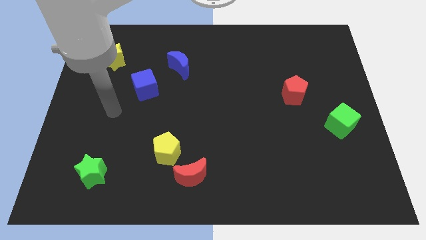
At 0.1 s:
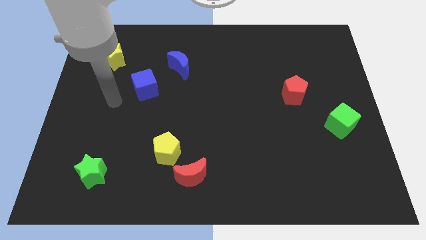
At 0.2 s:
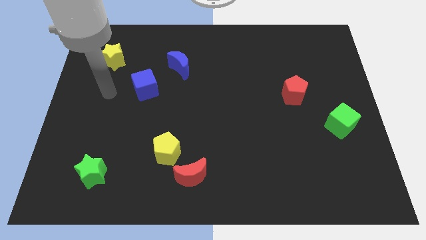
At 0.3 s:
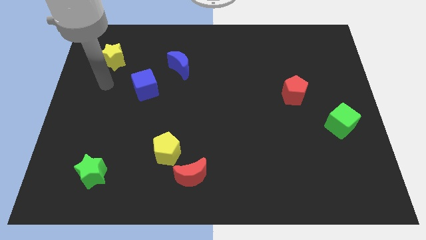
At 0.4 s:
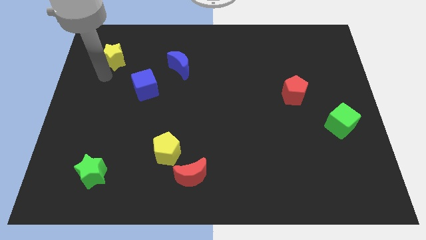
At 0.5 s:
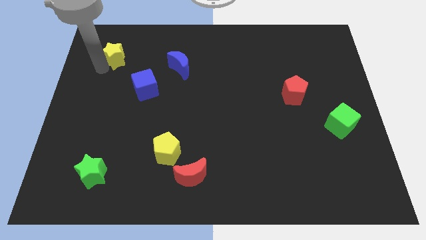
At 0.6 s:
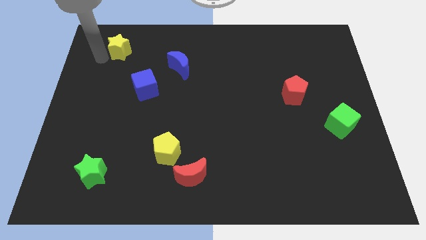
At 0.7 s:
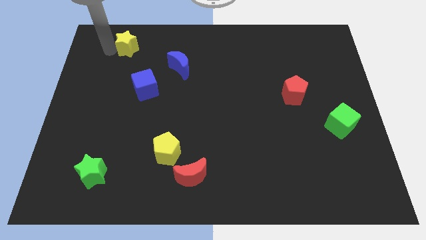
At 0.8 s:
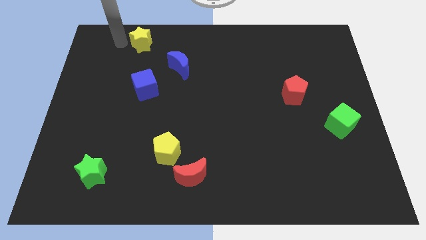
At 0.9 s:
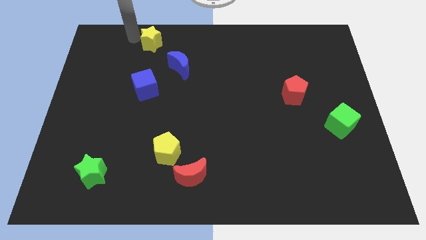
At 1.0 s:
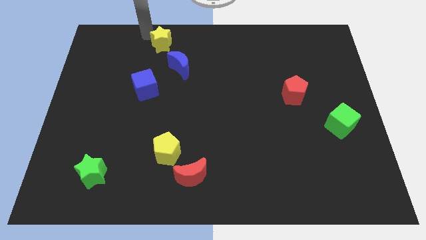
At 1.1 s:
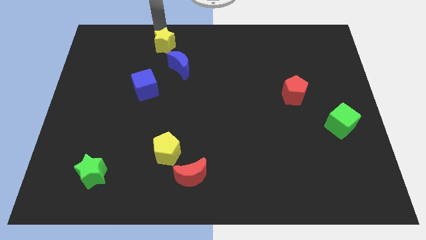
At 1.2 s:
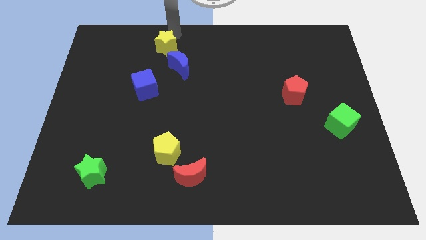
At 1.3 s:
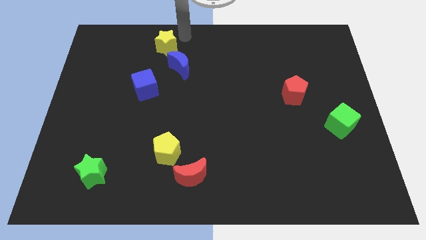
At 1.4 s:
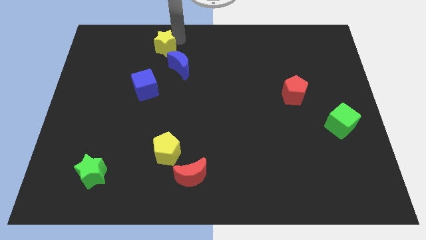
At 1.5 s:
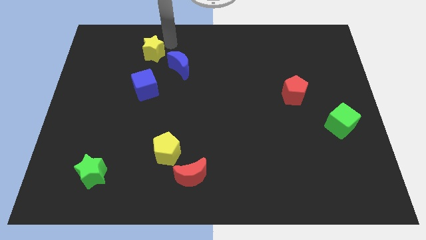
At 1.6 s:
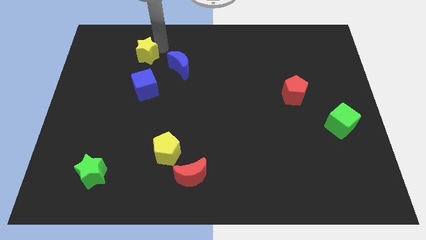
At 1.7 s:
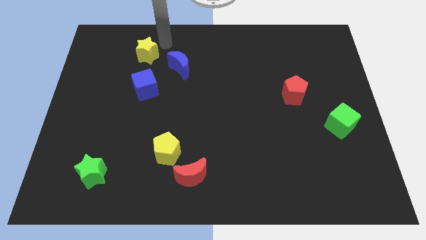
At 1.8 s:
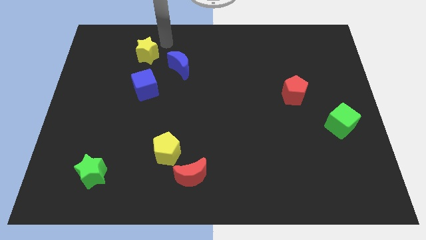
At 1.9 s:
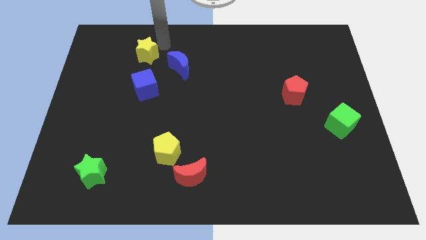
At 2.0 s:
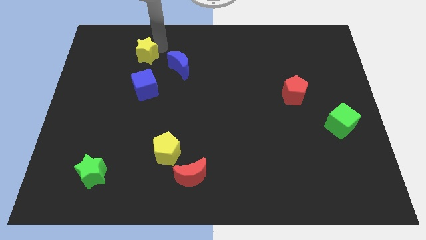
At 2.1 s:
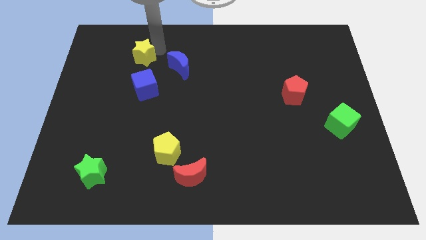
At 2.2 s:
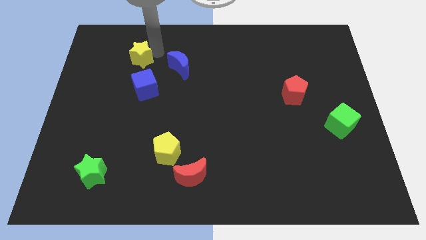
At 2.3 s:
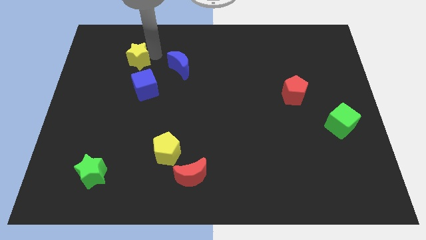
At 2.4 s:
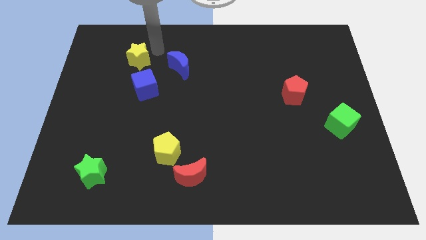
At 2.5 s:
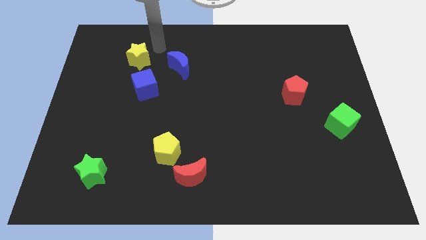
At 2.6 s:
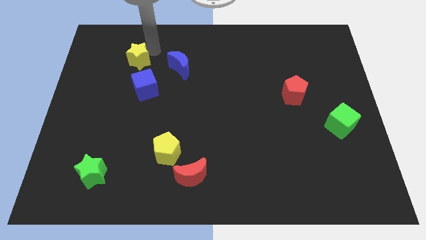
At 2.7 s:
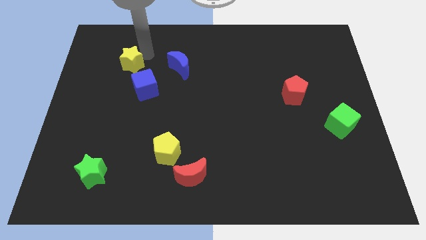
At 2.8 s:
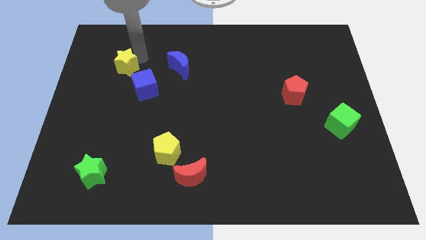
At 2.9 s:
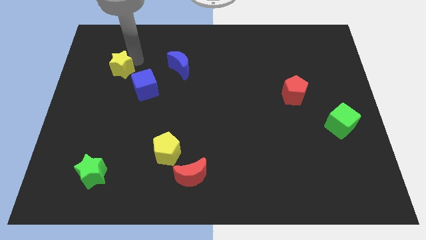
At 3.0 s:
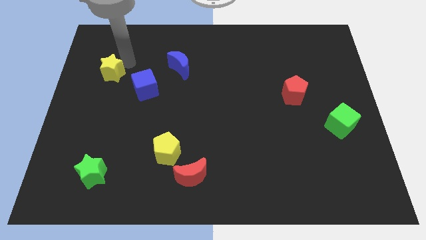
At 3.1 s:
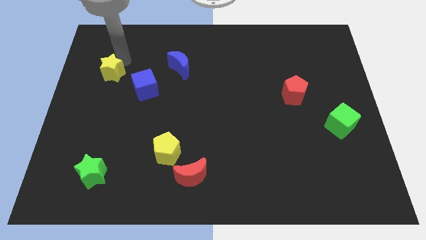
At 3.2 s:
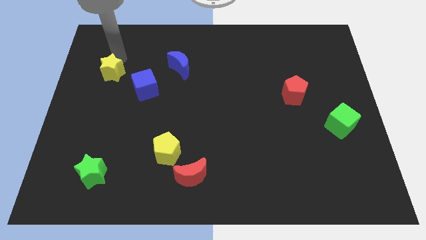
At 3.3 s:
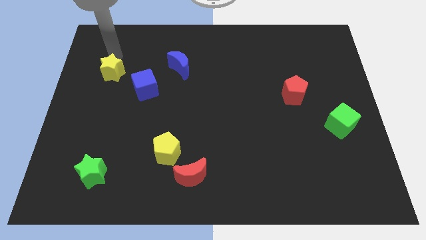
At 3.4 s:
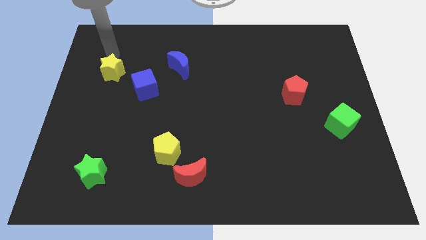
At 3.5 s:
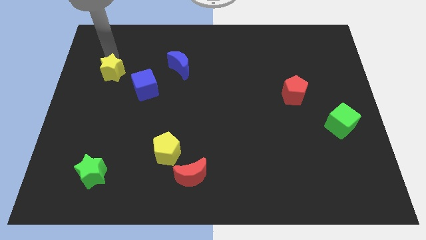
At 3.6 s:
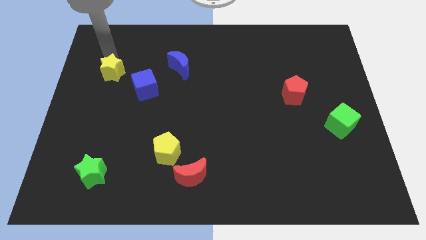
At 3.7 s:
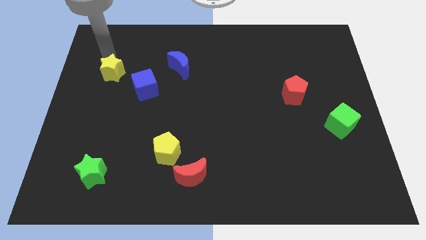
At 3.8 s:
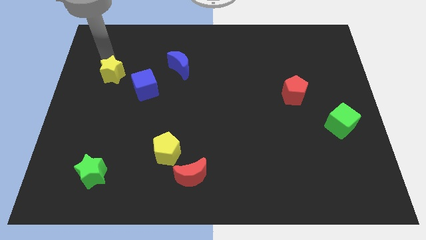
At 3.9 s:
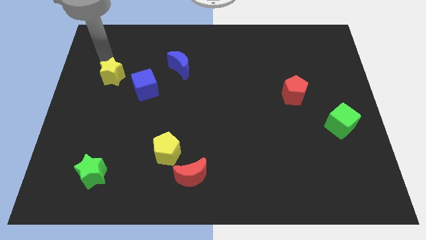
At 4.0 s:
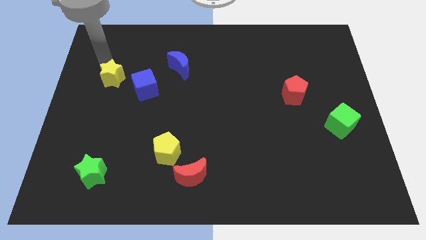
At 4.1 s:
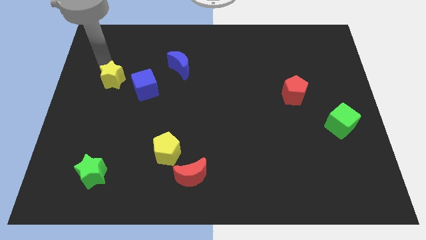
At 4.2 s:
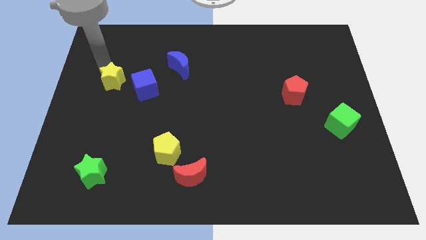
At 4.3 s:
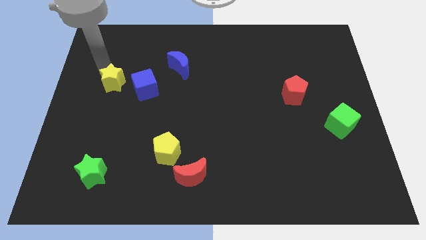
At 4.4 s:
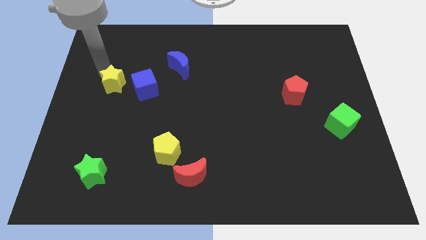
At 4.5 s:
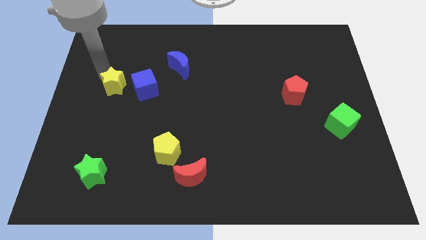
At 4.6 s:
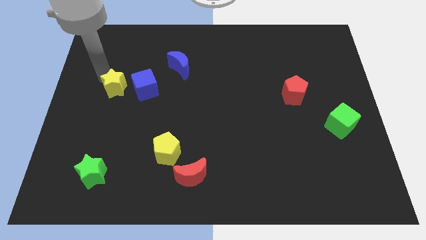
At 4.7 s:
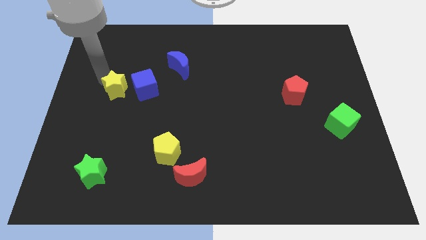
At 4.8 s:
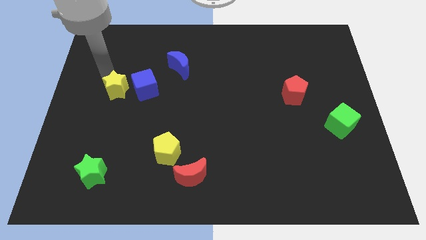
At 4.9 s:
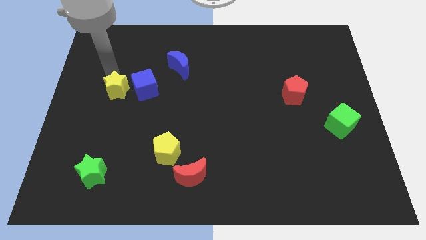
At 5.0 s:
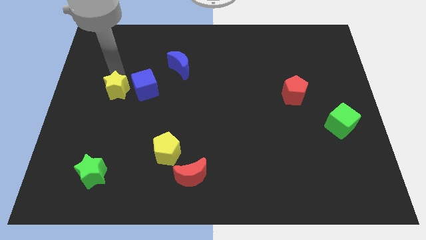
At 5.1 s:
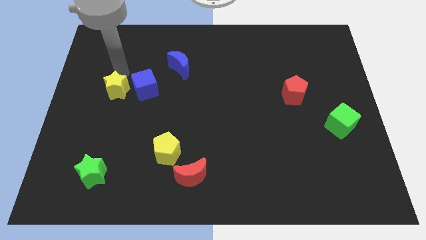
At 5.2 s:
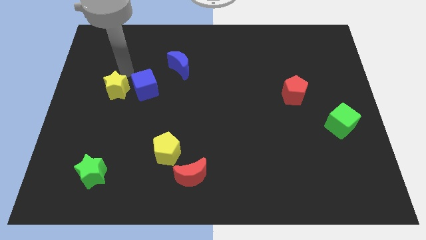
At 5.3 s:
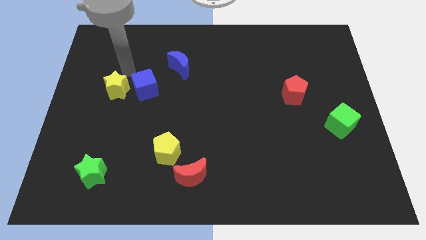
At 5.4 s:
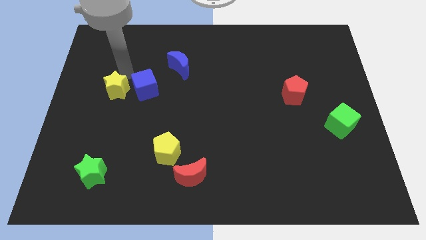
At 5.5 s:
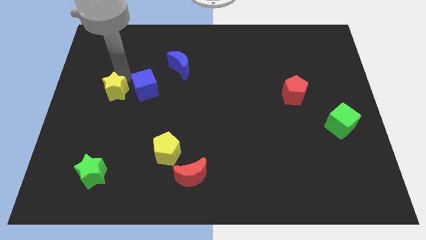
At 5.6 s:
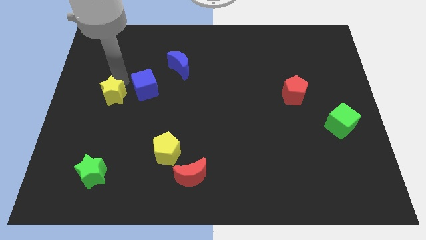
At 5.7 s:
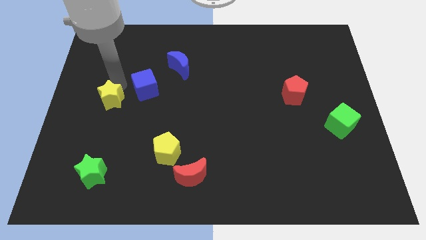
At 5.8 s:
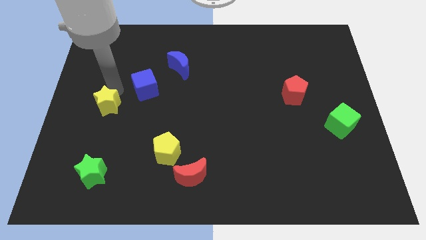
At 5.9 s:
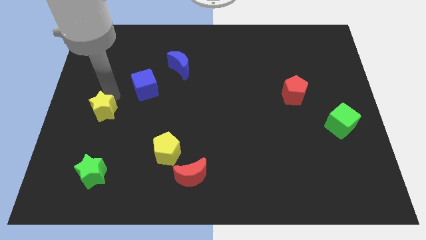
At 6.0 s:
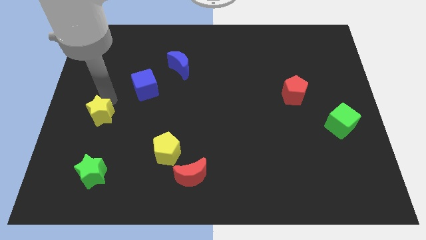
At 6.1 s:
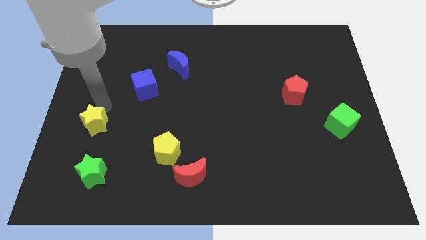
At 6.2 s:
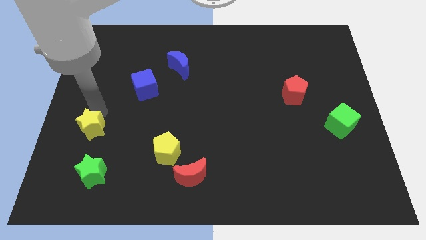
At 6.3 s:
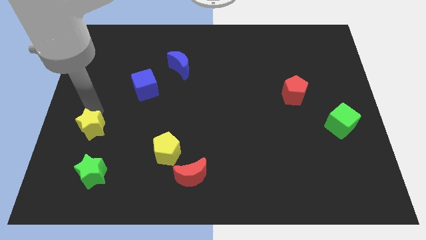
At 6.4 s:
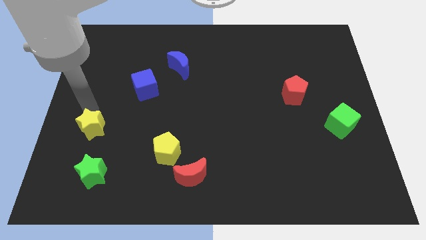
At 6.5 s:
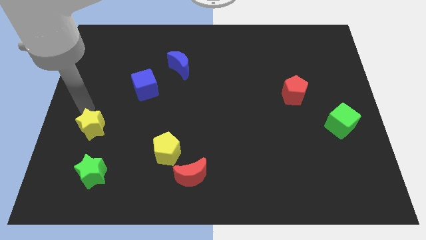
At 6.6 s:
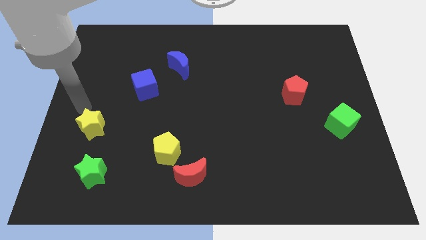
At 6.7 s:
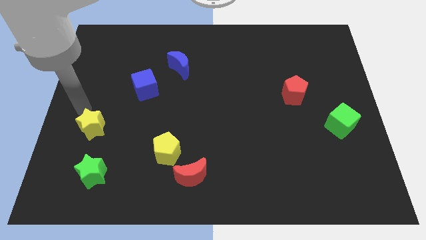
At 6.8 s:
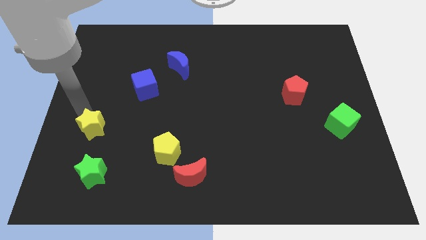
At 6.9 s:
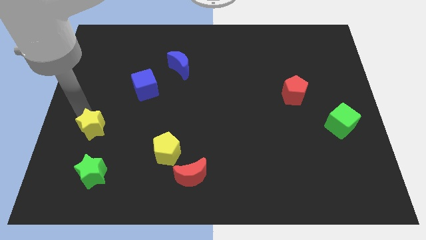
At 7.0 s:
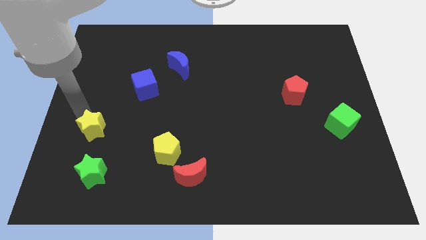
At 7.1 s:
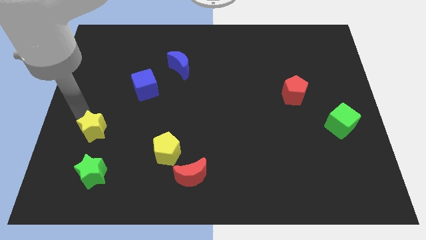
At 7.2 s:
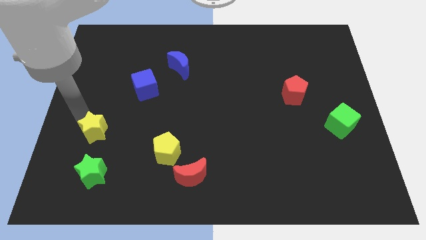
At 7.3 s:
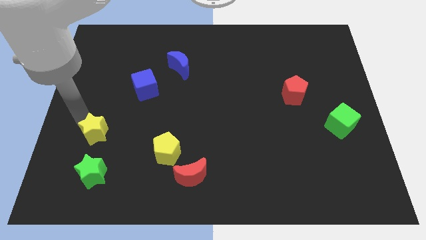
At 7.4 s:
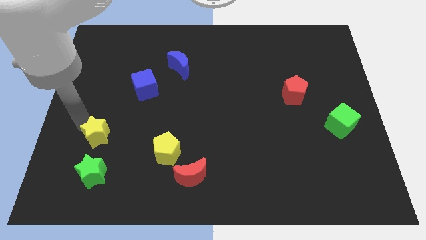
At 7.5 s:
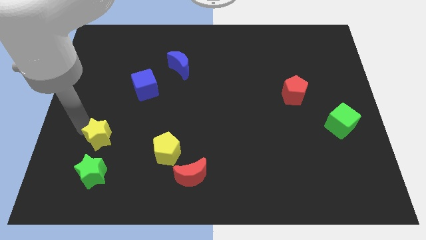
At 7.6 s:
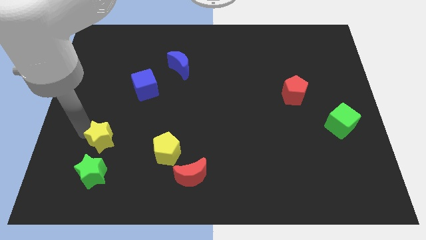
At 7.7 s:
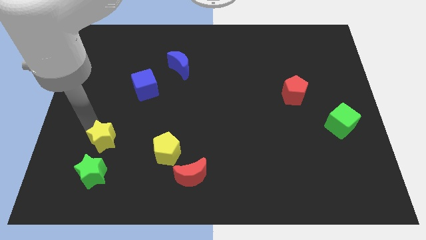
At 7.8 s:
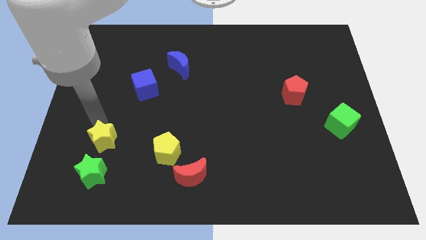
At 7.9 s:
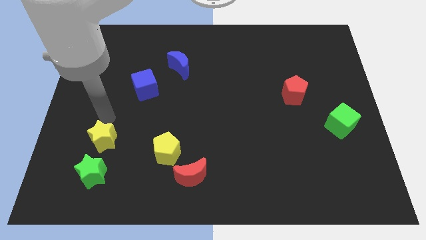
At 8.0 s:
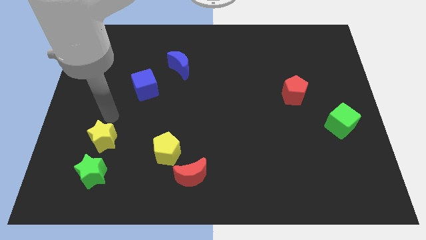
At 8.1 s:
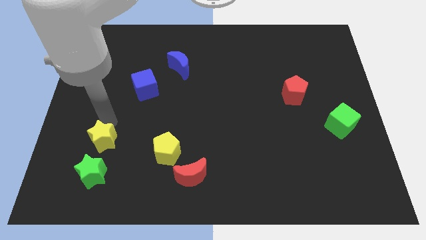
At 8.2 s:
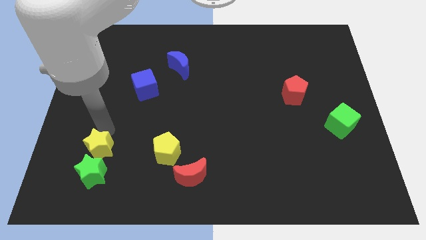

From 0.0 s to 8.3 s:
push the yellow star towards the green star
